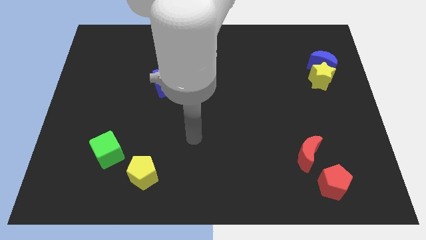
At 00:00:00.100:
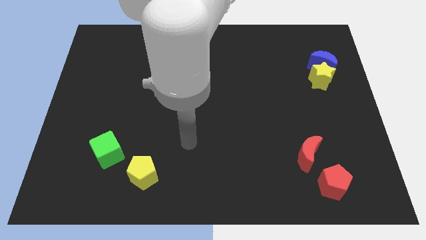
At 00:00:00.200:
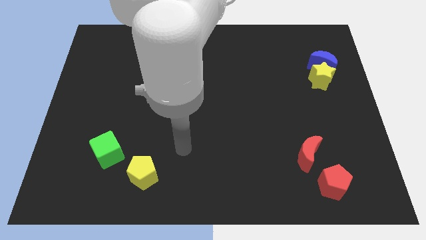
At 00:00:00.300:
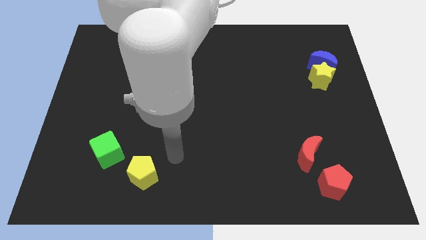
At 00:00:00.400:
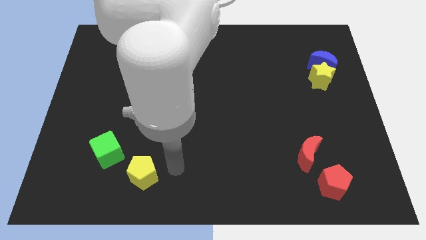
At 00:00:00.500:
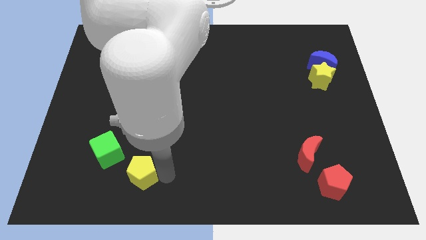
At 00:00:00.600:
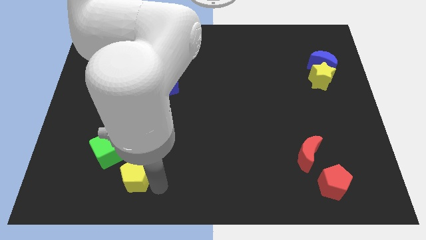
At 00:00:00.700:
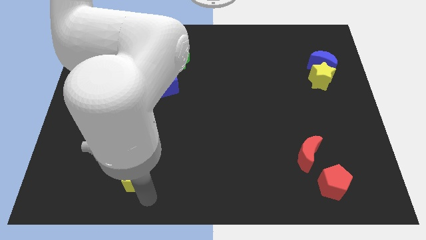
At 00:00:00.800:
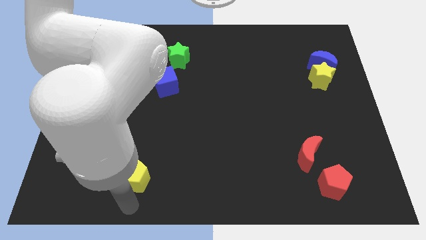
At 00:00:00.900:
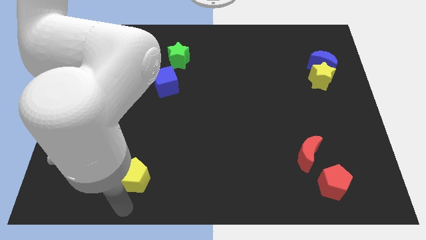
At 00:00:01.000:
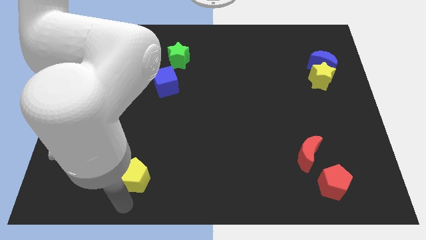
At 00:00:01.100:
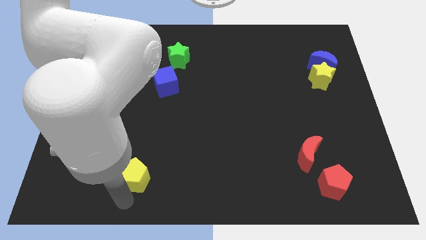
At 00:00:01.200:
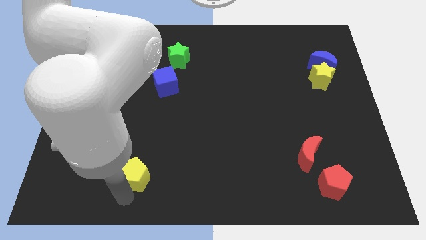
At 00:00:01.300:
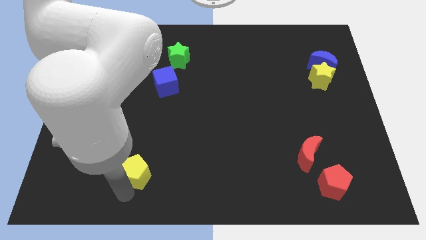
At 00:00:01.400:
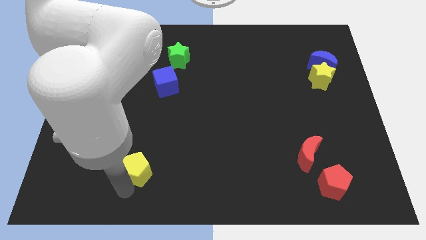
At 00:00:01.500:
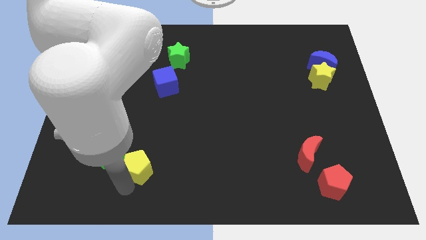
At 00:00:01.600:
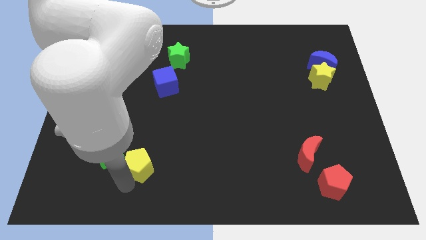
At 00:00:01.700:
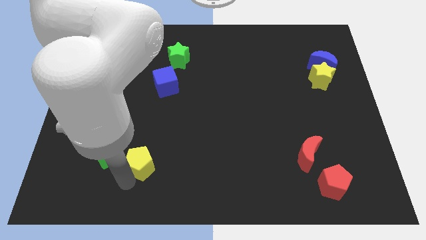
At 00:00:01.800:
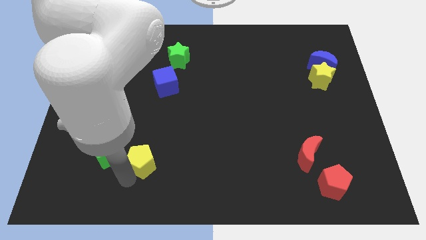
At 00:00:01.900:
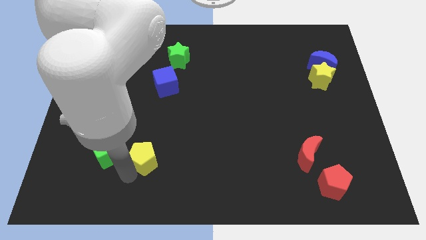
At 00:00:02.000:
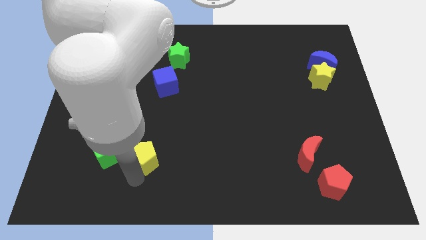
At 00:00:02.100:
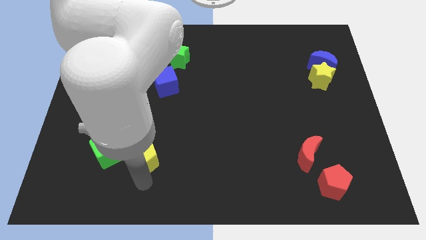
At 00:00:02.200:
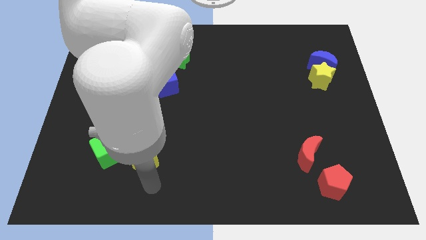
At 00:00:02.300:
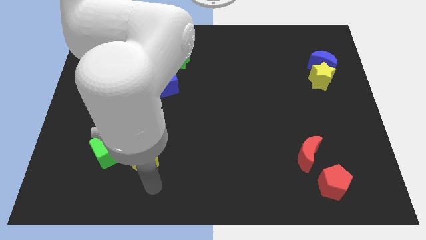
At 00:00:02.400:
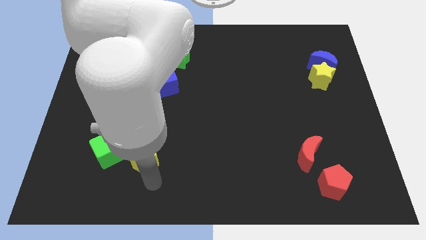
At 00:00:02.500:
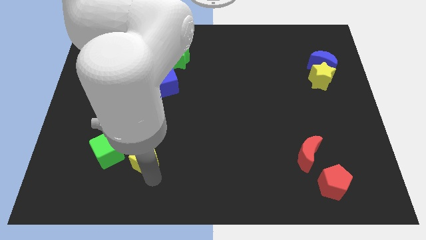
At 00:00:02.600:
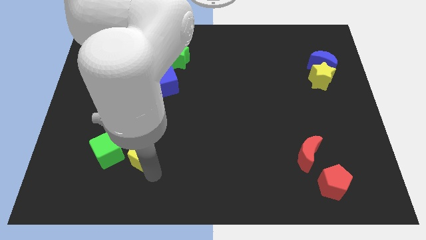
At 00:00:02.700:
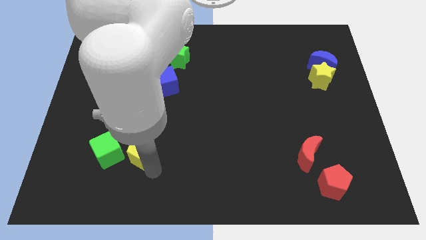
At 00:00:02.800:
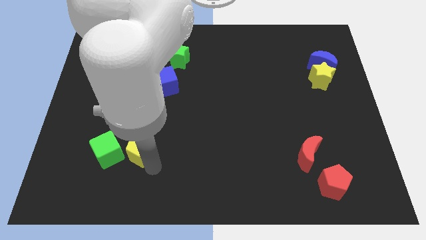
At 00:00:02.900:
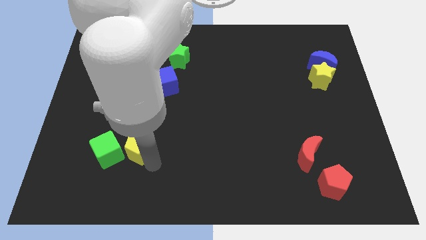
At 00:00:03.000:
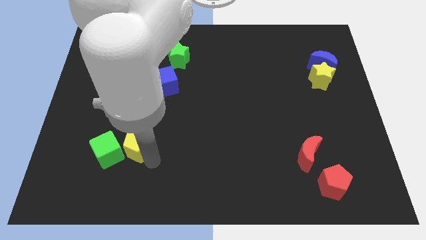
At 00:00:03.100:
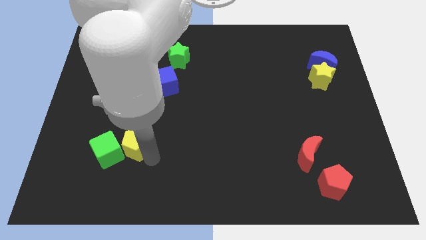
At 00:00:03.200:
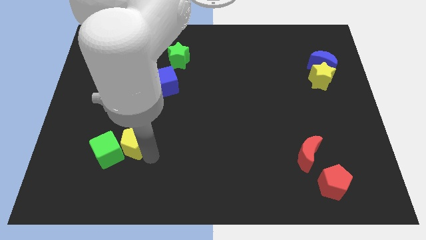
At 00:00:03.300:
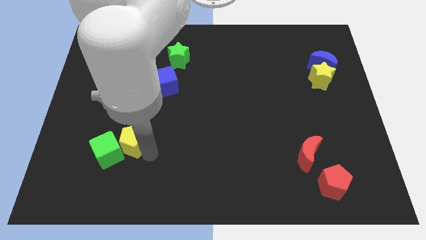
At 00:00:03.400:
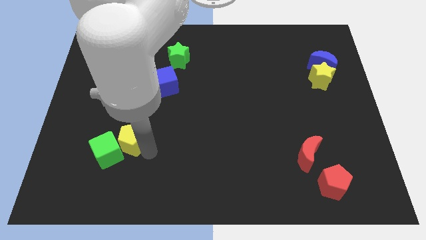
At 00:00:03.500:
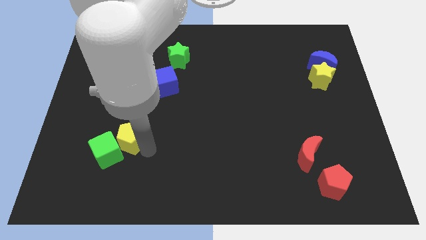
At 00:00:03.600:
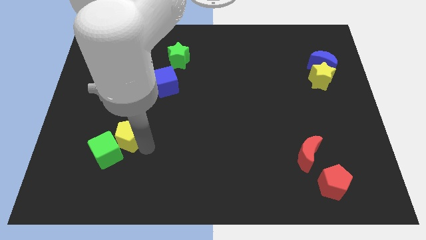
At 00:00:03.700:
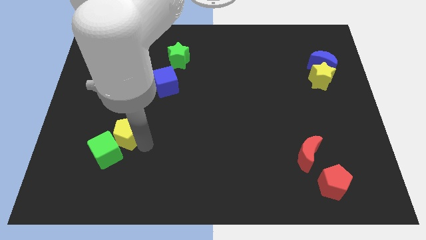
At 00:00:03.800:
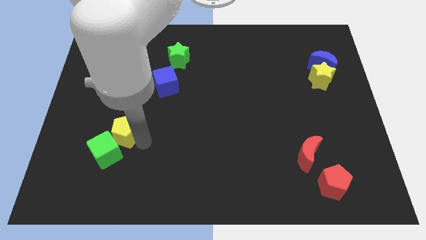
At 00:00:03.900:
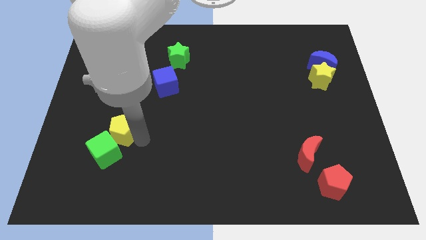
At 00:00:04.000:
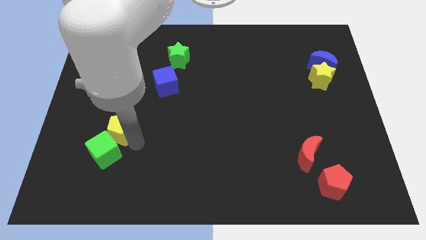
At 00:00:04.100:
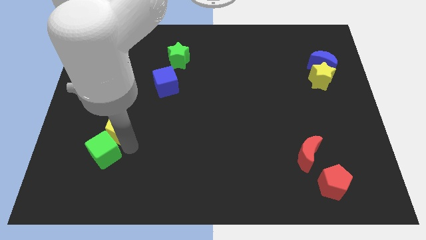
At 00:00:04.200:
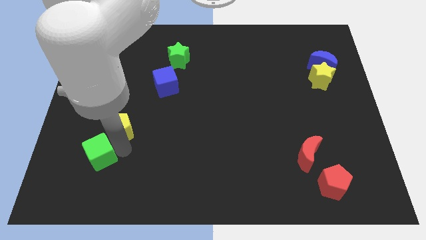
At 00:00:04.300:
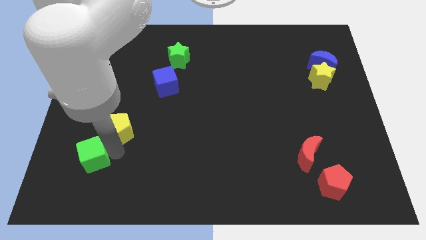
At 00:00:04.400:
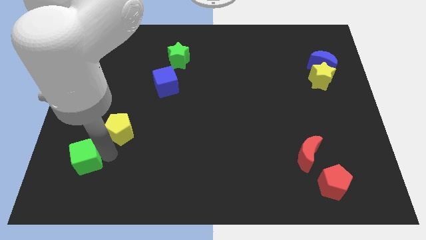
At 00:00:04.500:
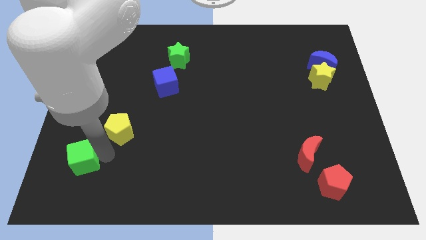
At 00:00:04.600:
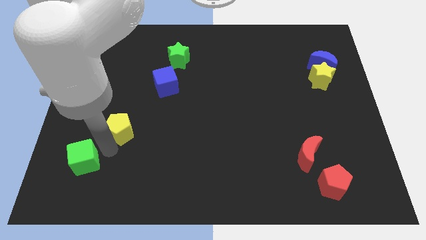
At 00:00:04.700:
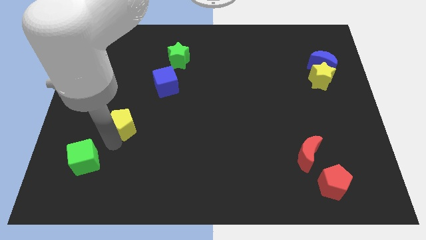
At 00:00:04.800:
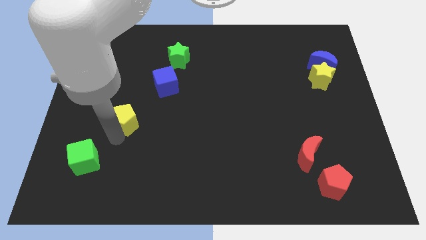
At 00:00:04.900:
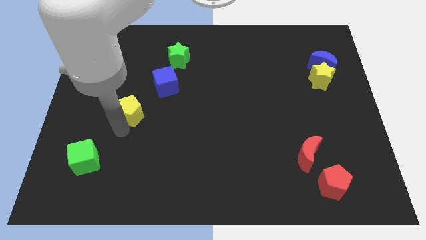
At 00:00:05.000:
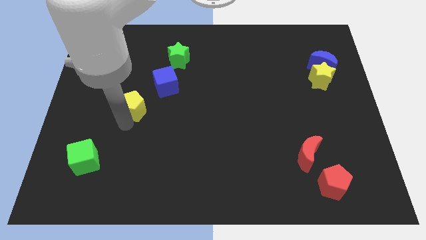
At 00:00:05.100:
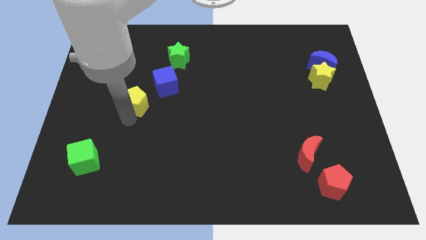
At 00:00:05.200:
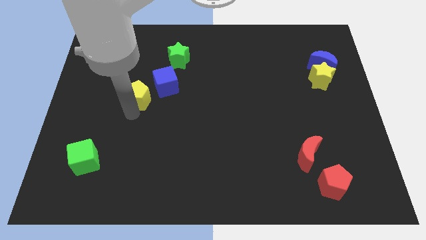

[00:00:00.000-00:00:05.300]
move the yellow pentagon upwards

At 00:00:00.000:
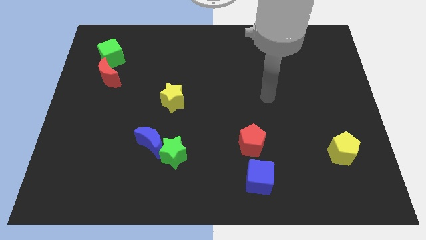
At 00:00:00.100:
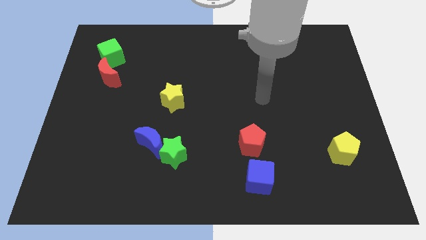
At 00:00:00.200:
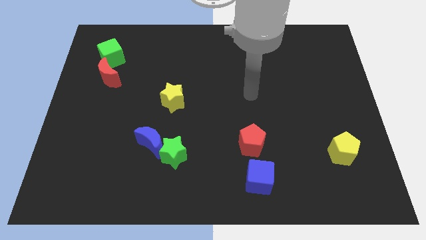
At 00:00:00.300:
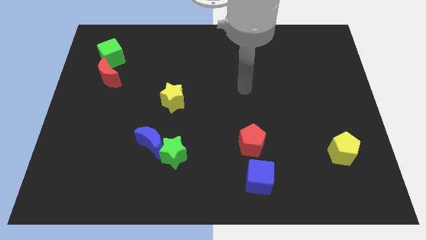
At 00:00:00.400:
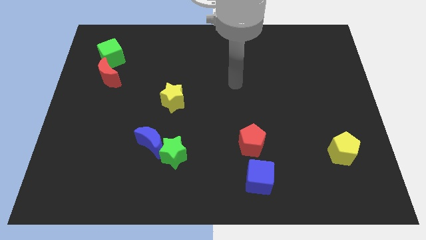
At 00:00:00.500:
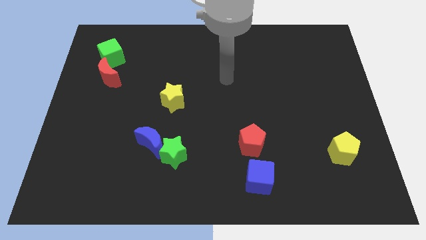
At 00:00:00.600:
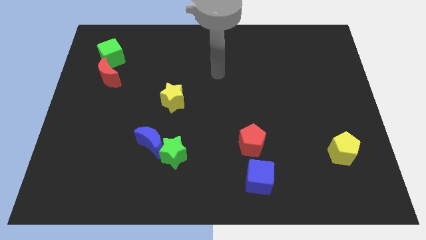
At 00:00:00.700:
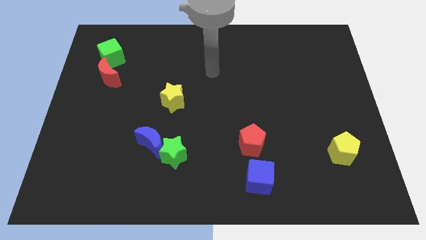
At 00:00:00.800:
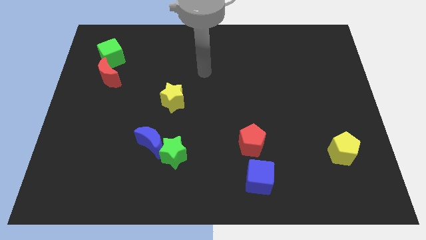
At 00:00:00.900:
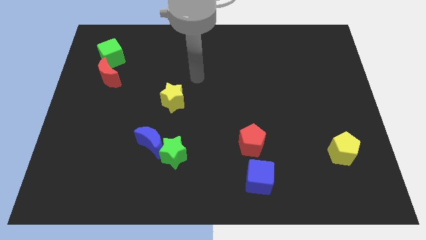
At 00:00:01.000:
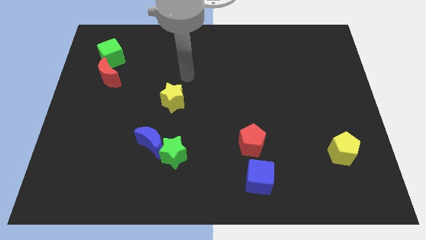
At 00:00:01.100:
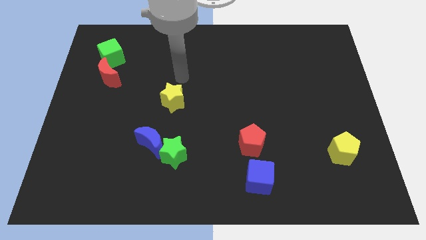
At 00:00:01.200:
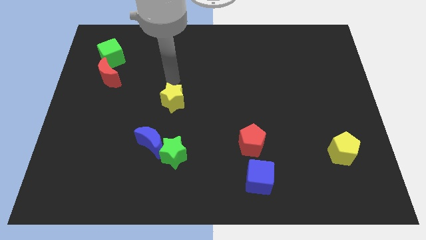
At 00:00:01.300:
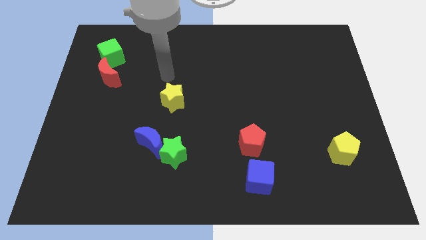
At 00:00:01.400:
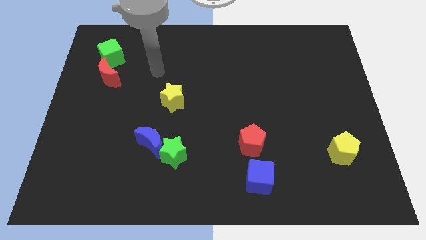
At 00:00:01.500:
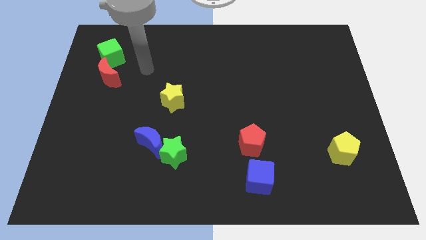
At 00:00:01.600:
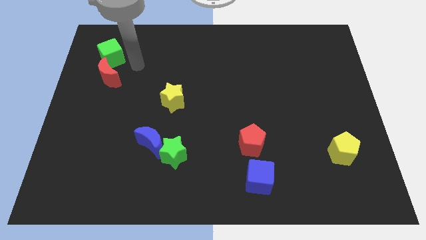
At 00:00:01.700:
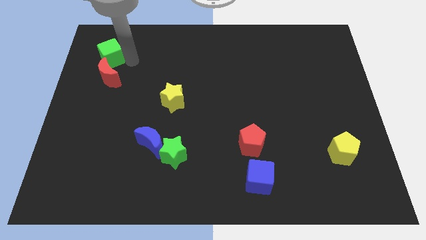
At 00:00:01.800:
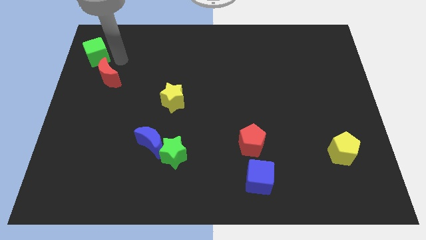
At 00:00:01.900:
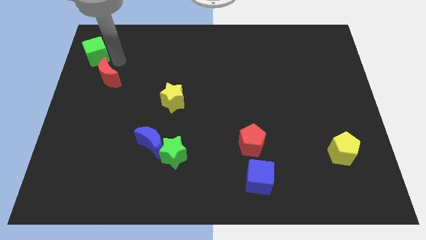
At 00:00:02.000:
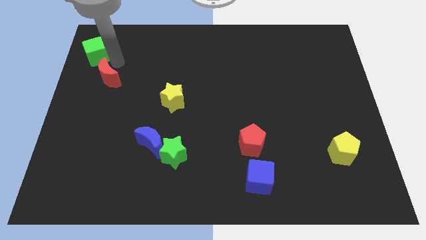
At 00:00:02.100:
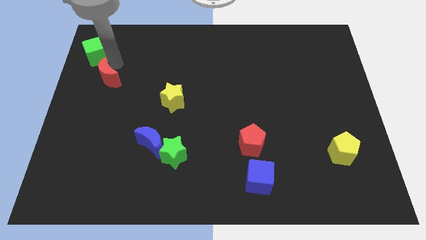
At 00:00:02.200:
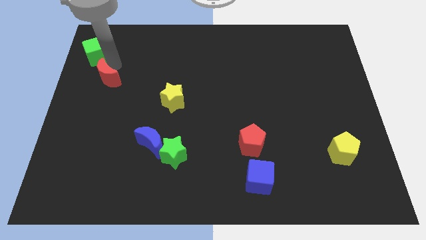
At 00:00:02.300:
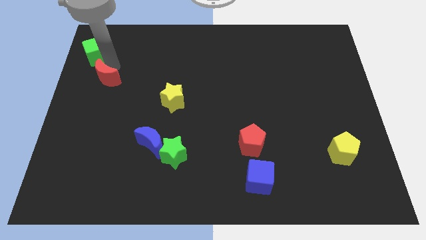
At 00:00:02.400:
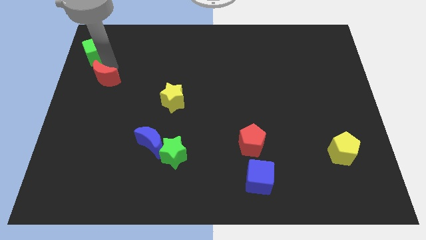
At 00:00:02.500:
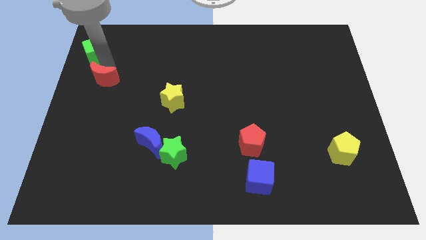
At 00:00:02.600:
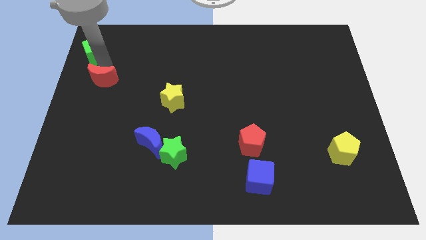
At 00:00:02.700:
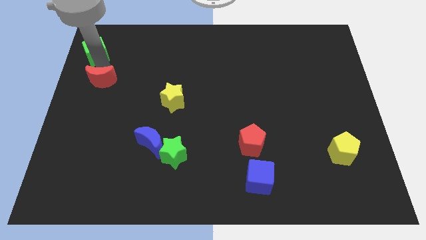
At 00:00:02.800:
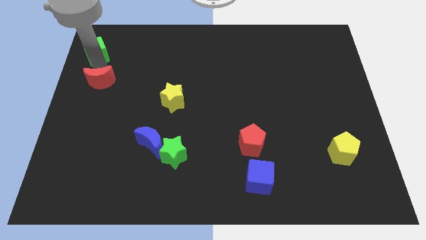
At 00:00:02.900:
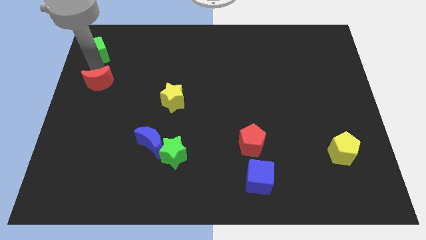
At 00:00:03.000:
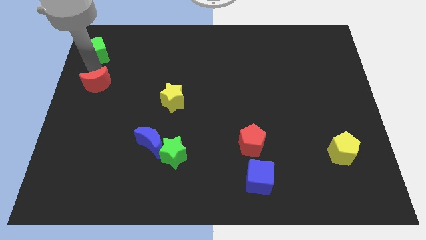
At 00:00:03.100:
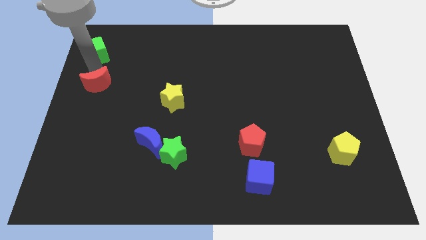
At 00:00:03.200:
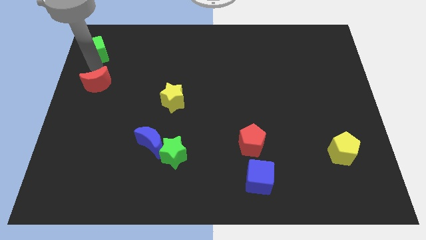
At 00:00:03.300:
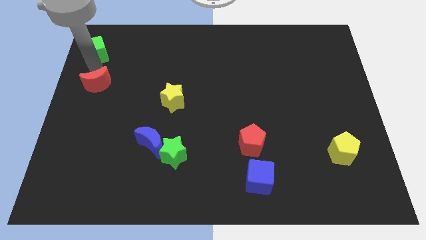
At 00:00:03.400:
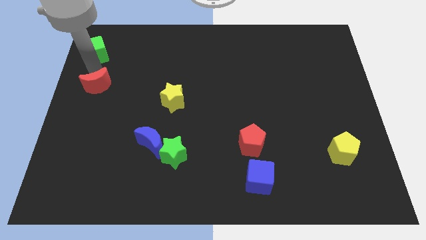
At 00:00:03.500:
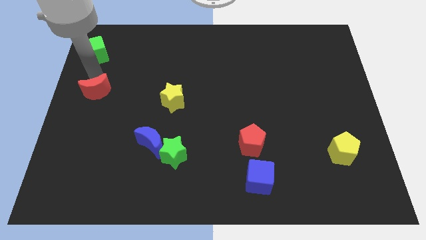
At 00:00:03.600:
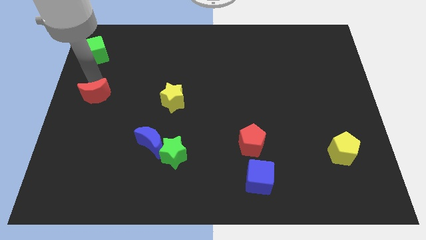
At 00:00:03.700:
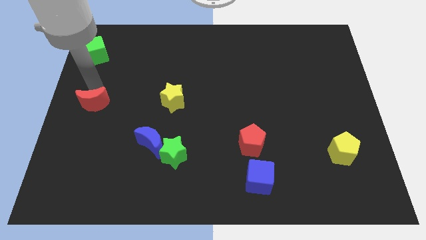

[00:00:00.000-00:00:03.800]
slightly push the red moon downwards
